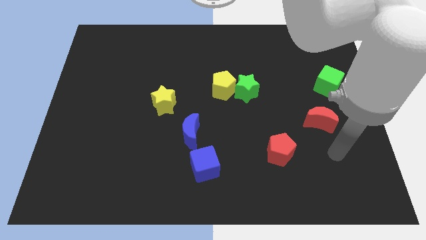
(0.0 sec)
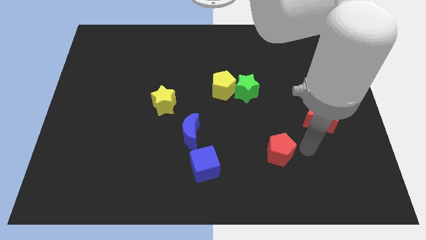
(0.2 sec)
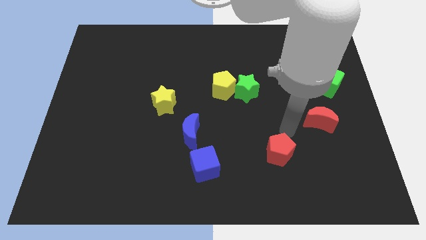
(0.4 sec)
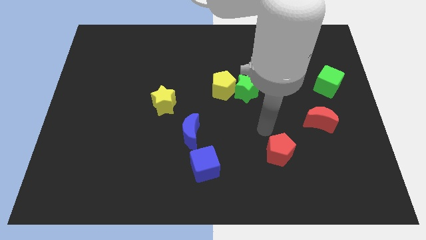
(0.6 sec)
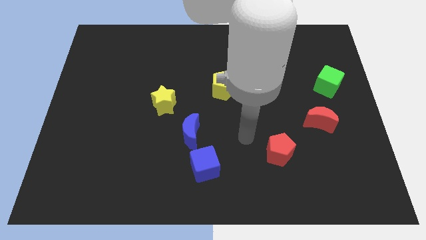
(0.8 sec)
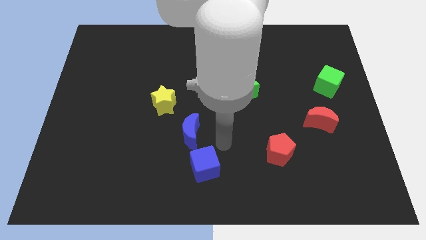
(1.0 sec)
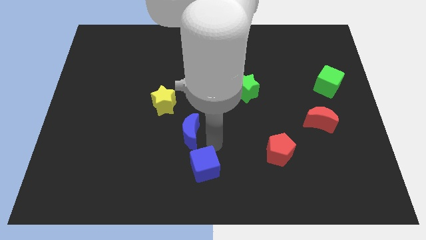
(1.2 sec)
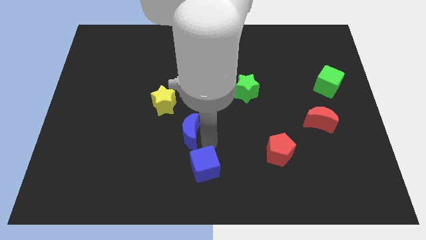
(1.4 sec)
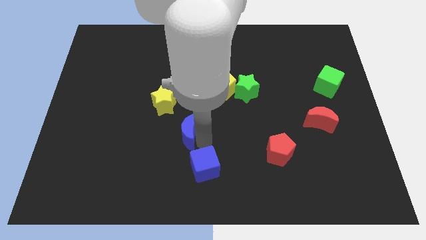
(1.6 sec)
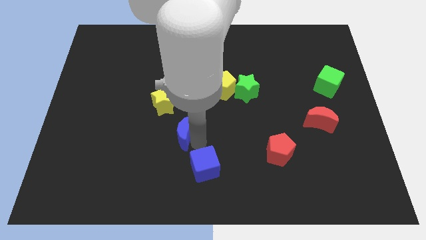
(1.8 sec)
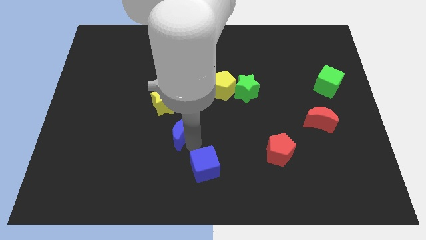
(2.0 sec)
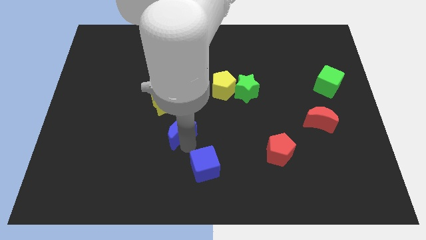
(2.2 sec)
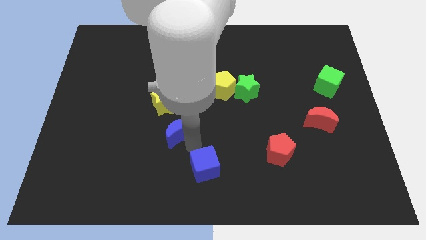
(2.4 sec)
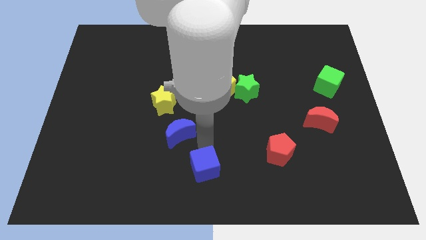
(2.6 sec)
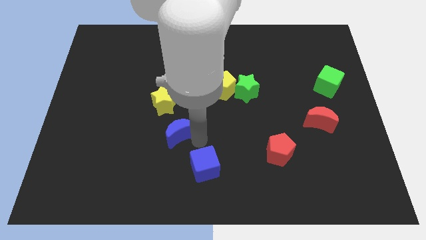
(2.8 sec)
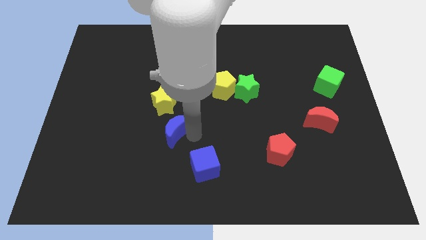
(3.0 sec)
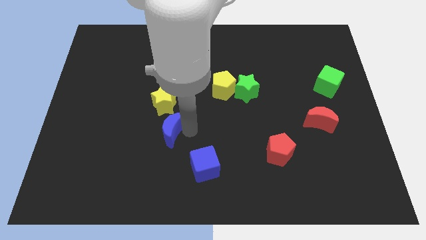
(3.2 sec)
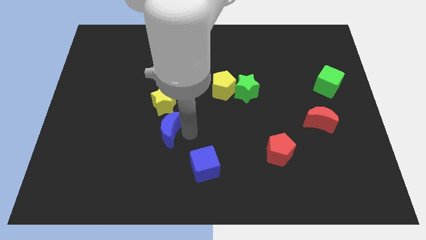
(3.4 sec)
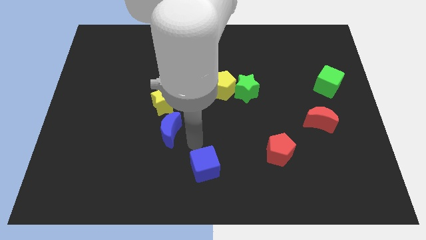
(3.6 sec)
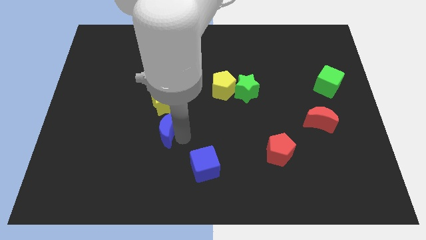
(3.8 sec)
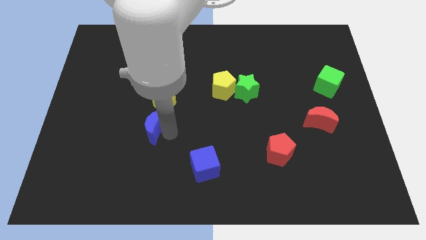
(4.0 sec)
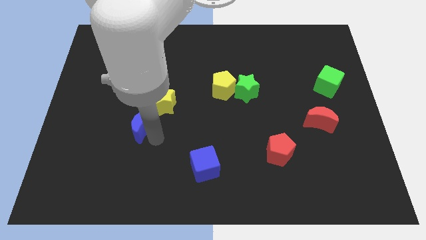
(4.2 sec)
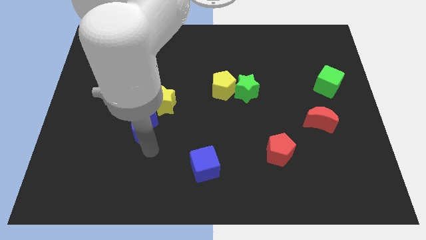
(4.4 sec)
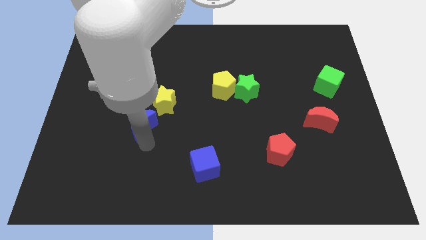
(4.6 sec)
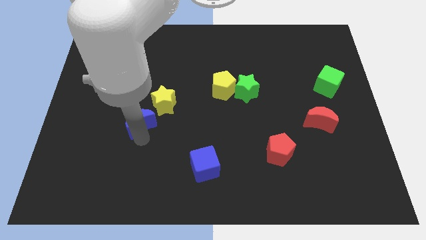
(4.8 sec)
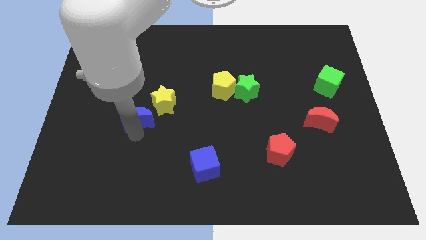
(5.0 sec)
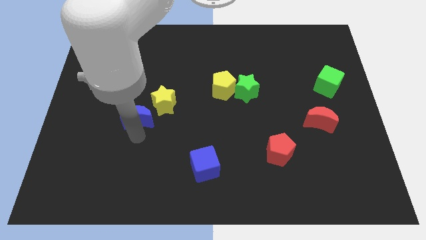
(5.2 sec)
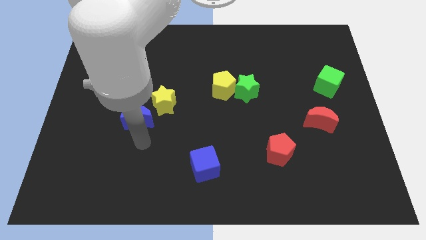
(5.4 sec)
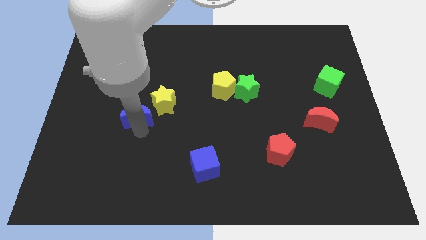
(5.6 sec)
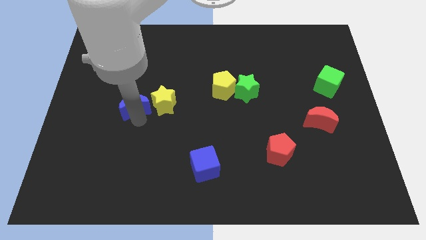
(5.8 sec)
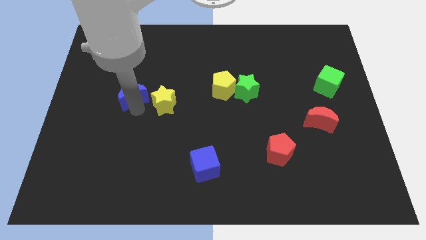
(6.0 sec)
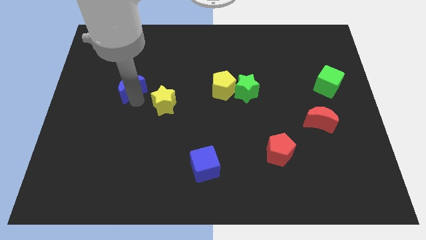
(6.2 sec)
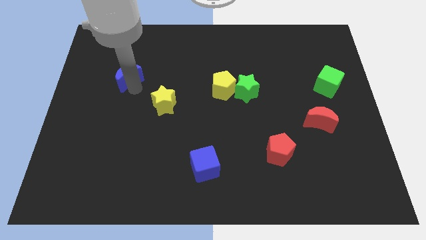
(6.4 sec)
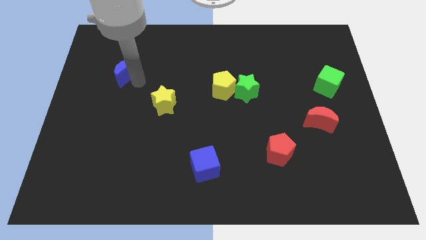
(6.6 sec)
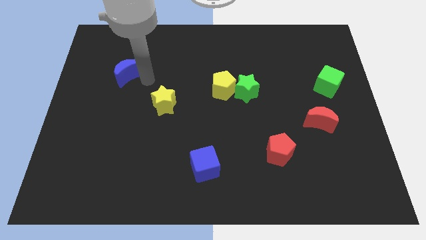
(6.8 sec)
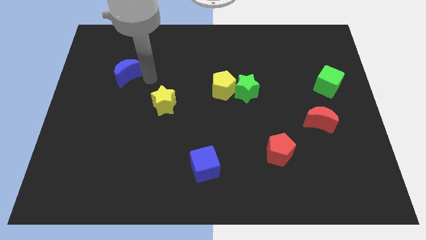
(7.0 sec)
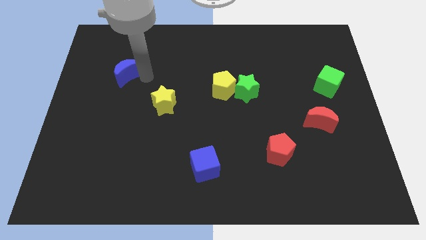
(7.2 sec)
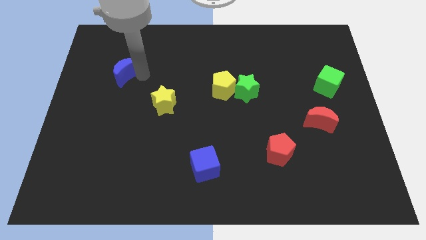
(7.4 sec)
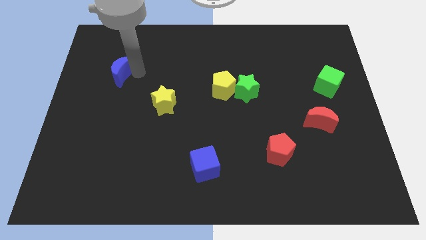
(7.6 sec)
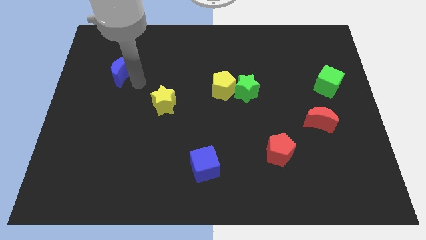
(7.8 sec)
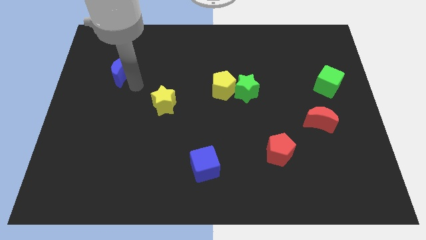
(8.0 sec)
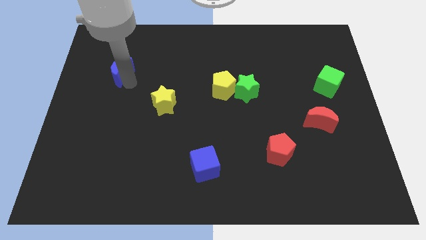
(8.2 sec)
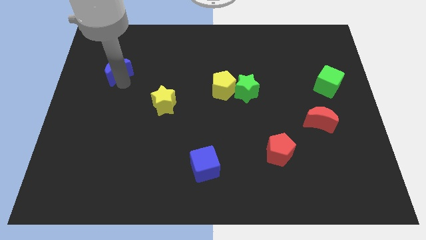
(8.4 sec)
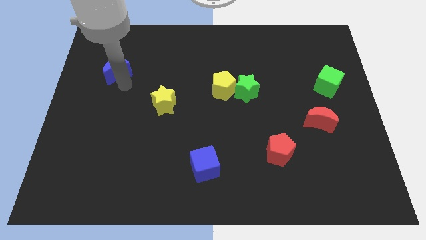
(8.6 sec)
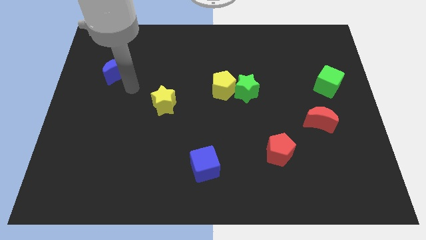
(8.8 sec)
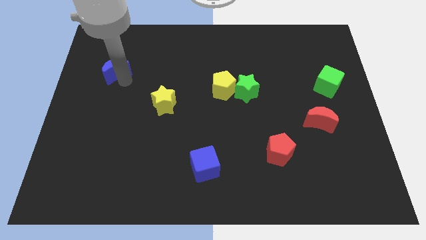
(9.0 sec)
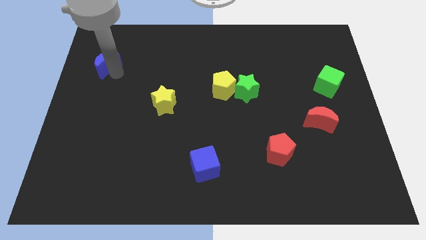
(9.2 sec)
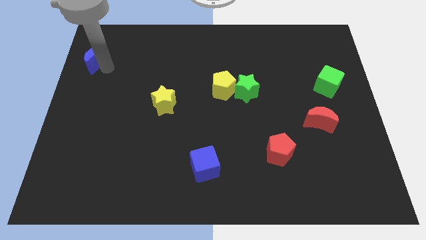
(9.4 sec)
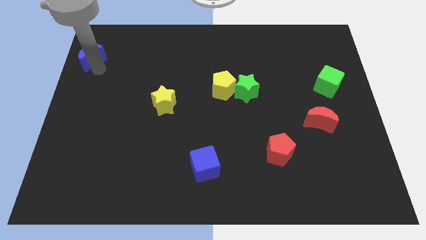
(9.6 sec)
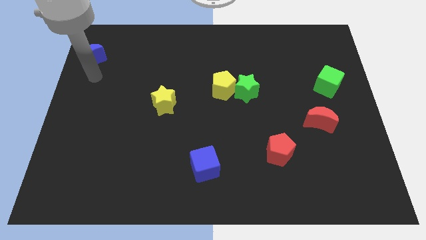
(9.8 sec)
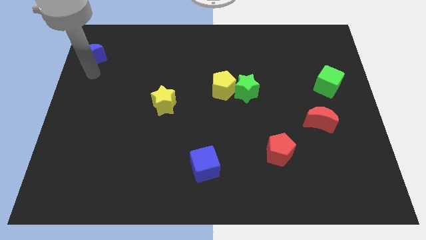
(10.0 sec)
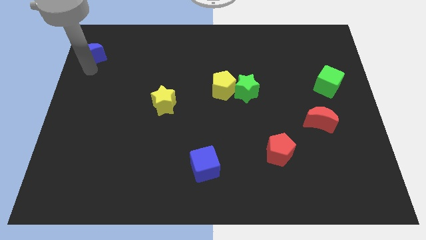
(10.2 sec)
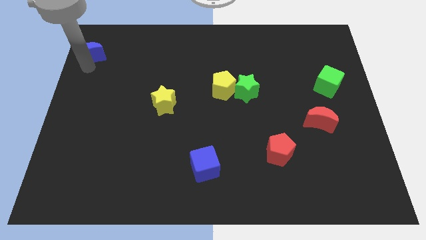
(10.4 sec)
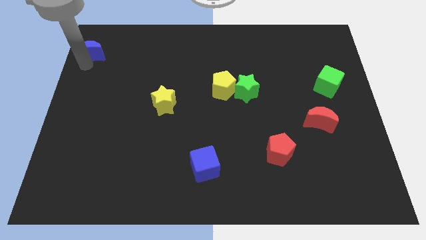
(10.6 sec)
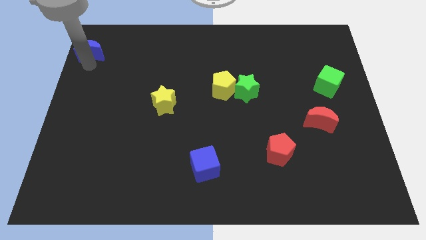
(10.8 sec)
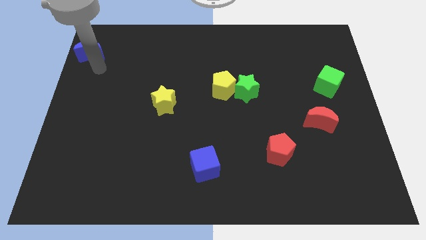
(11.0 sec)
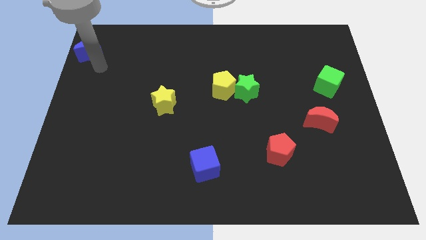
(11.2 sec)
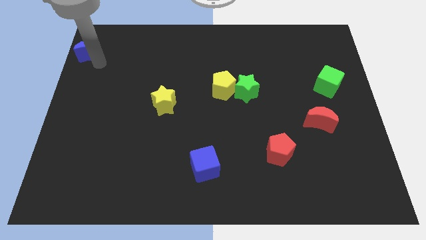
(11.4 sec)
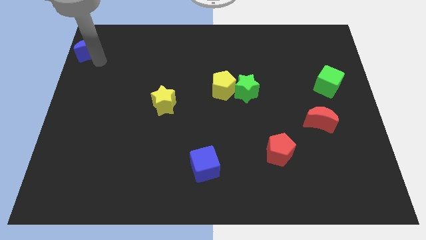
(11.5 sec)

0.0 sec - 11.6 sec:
push the blue moon to the top left
